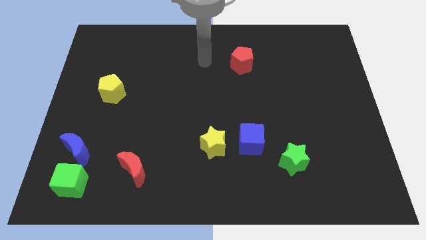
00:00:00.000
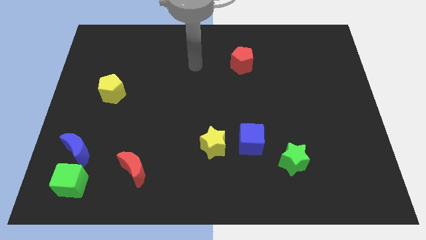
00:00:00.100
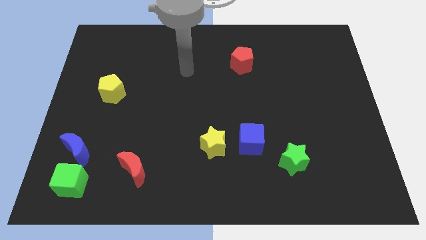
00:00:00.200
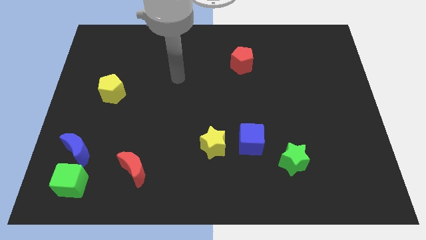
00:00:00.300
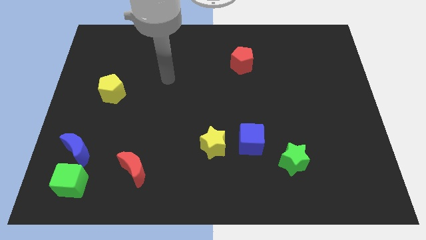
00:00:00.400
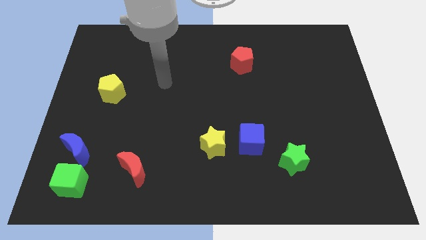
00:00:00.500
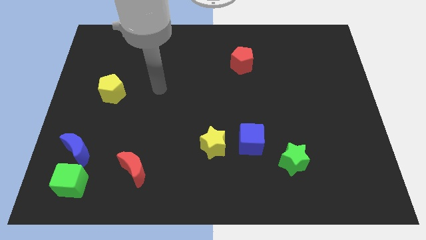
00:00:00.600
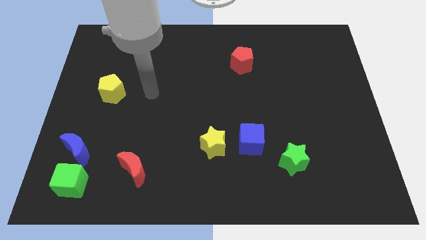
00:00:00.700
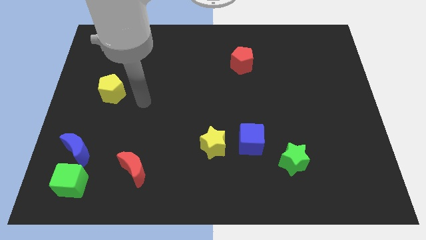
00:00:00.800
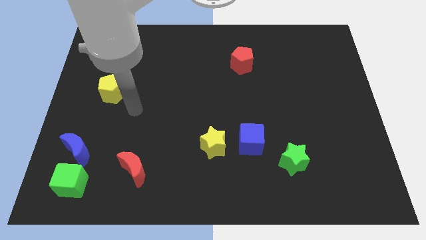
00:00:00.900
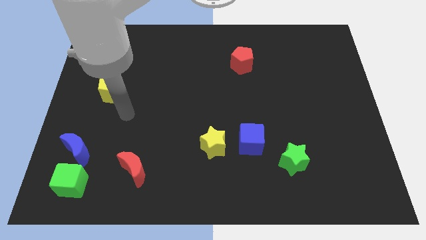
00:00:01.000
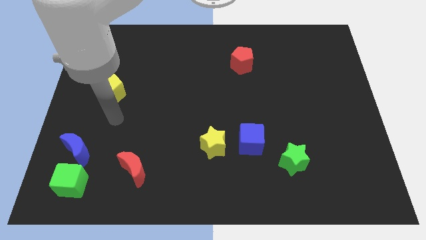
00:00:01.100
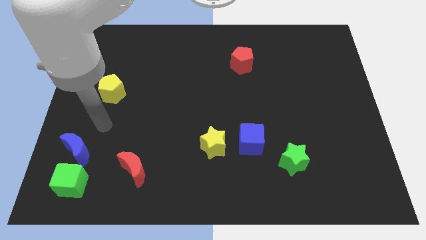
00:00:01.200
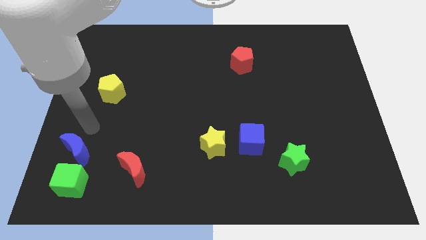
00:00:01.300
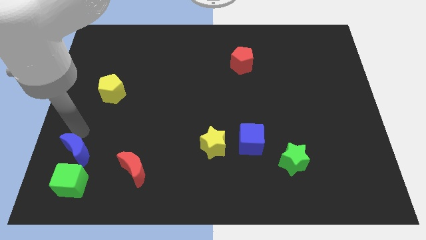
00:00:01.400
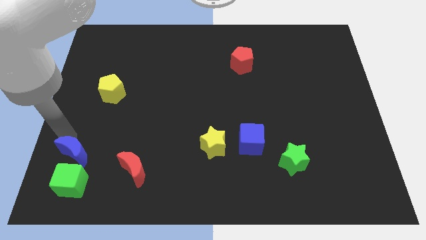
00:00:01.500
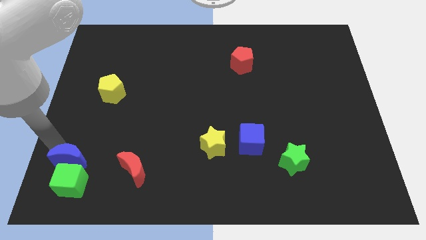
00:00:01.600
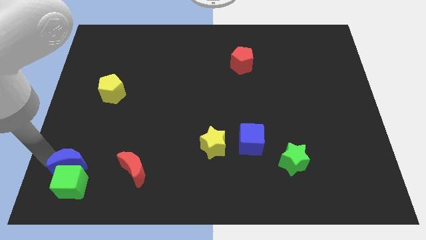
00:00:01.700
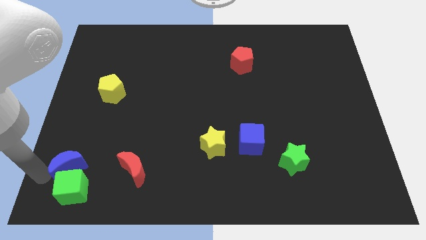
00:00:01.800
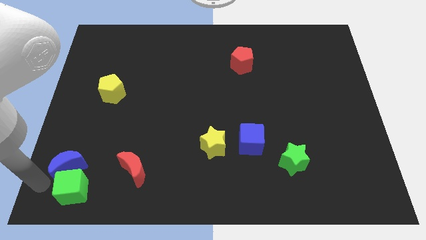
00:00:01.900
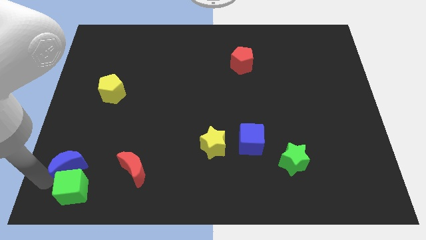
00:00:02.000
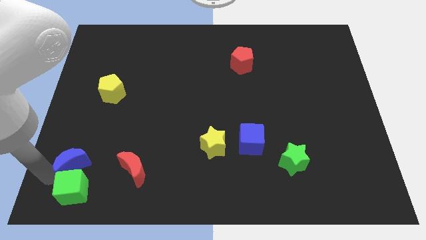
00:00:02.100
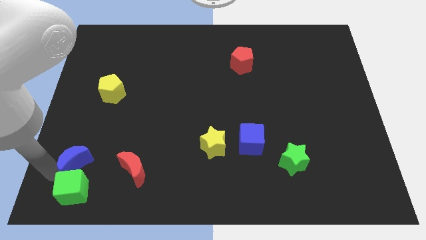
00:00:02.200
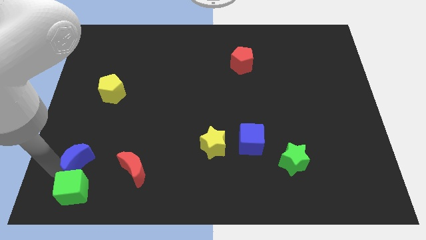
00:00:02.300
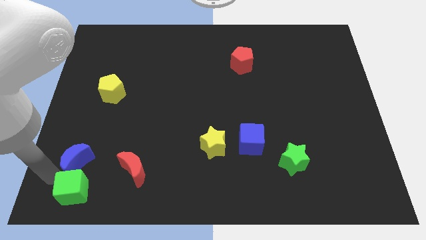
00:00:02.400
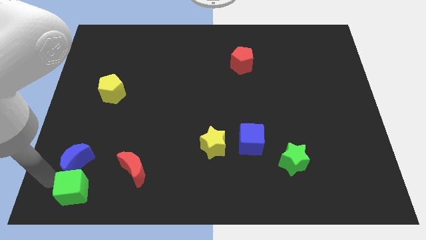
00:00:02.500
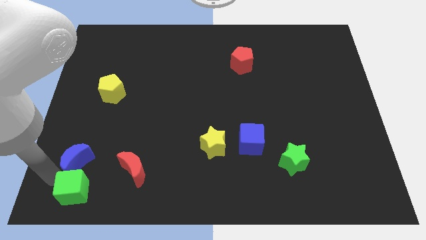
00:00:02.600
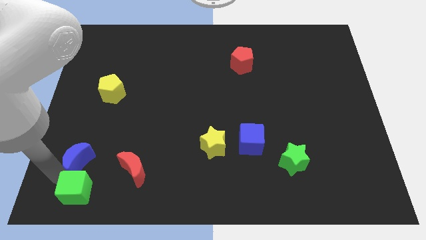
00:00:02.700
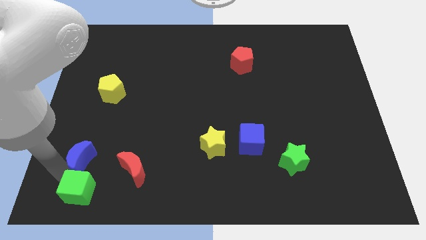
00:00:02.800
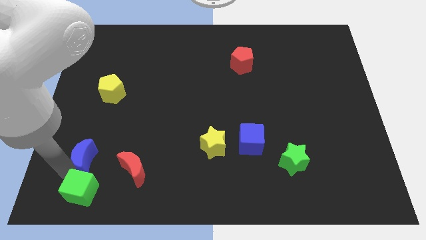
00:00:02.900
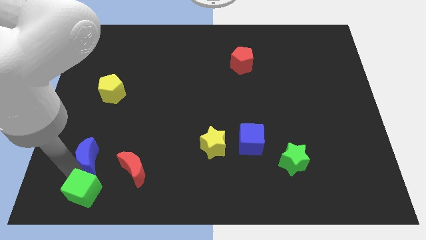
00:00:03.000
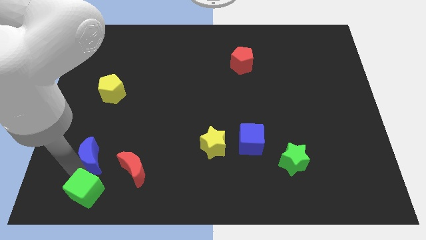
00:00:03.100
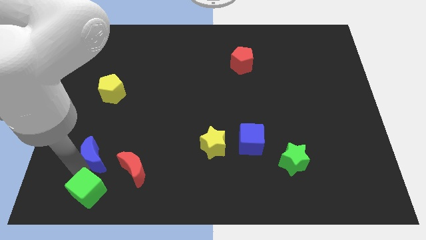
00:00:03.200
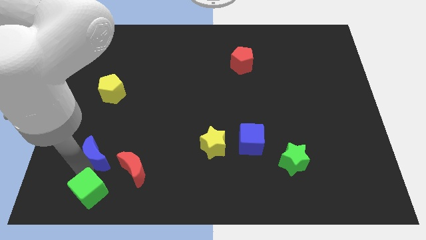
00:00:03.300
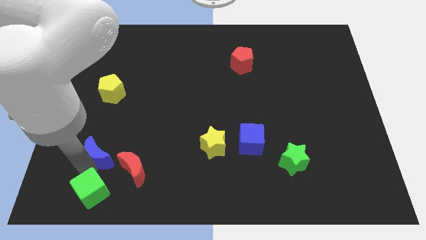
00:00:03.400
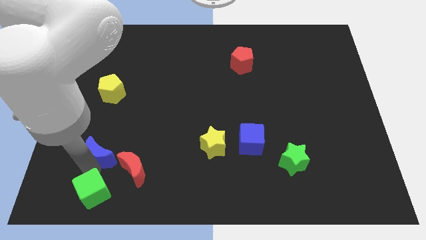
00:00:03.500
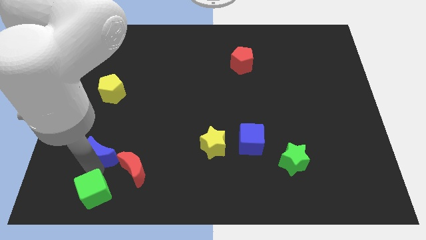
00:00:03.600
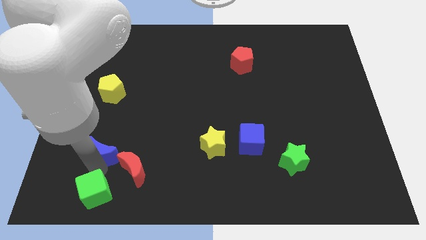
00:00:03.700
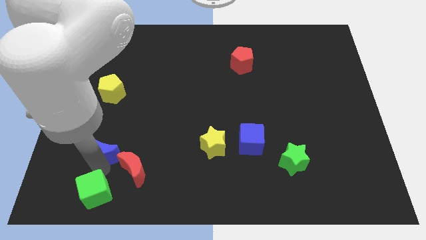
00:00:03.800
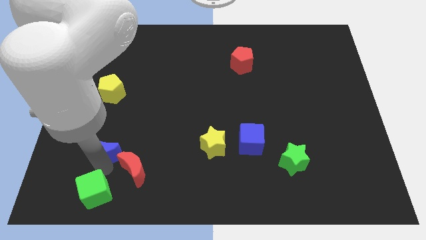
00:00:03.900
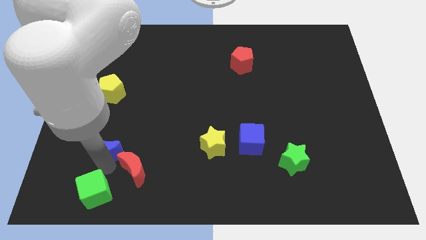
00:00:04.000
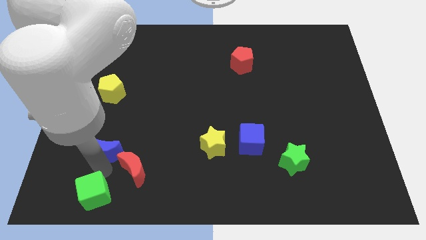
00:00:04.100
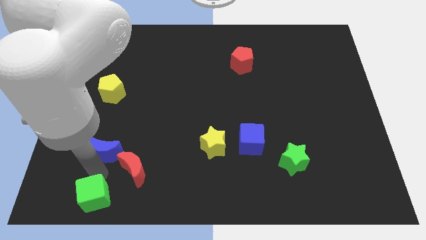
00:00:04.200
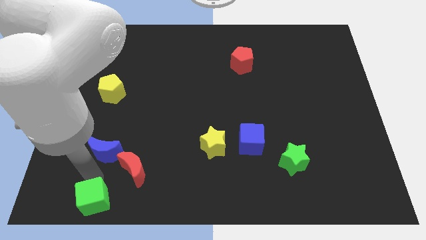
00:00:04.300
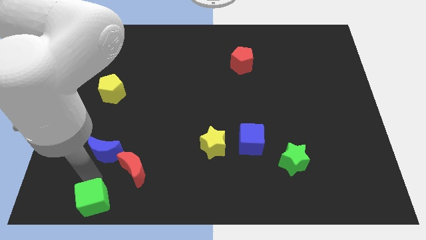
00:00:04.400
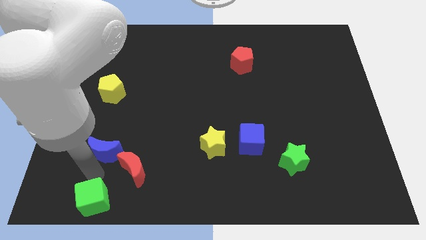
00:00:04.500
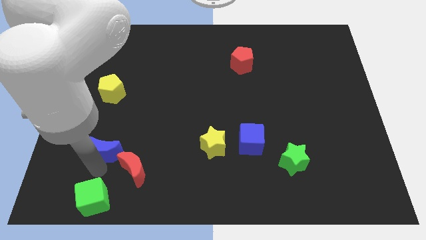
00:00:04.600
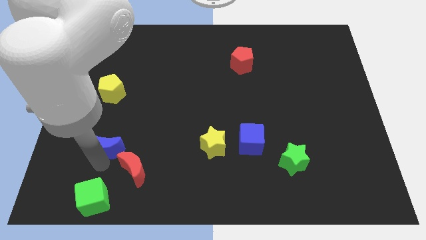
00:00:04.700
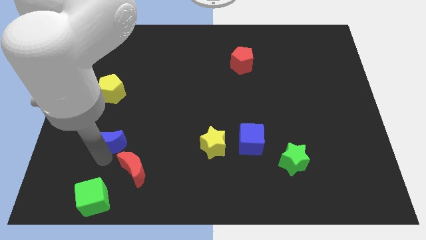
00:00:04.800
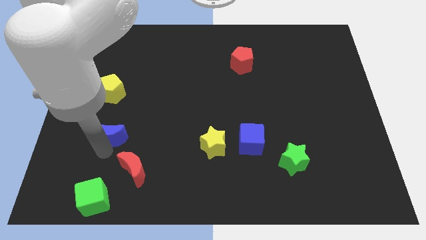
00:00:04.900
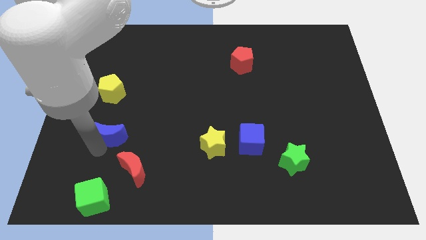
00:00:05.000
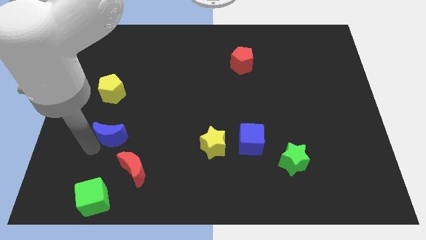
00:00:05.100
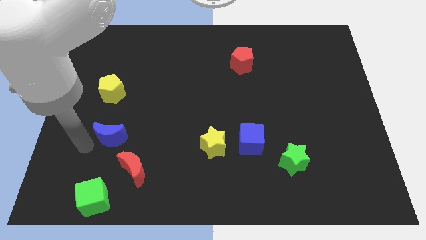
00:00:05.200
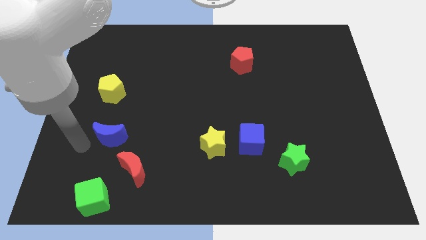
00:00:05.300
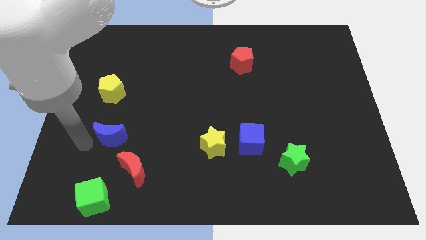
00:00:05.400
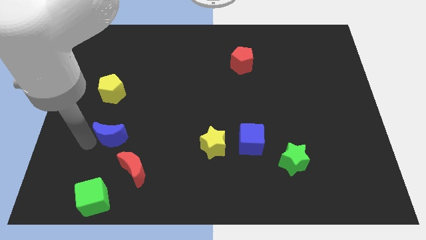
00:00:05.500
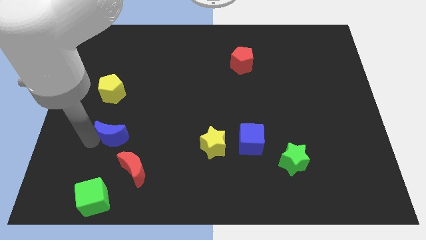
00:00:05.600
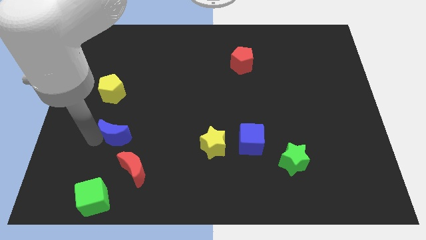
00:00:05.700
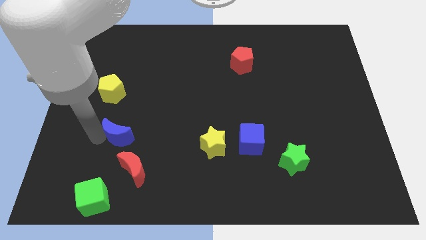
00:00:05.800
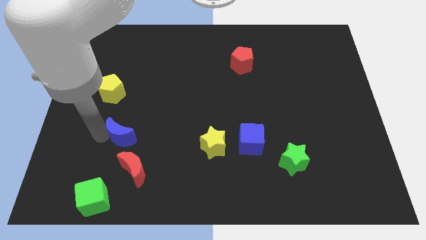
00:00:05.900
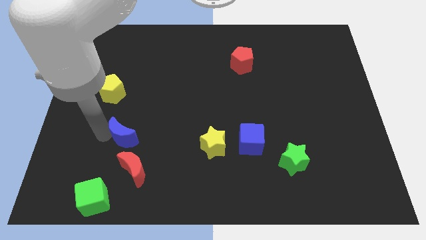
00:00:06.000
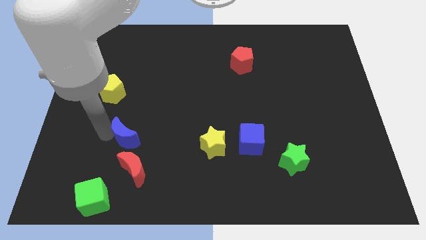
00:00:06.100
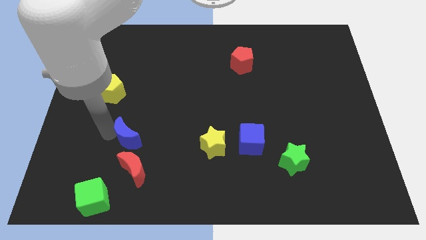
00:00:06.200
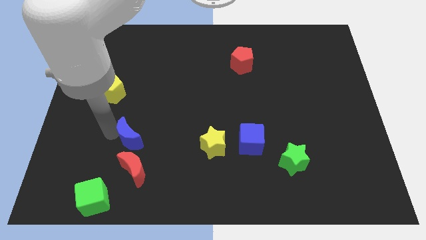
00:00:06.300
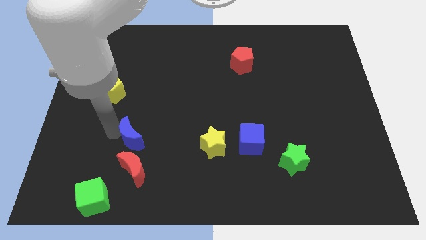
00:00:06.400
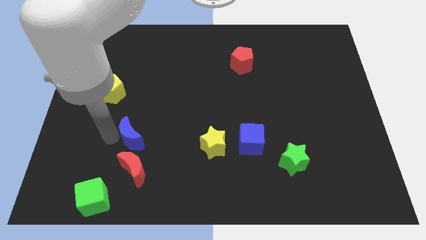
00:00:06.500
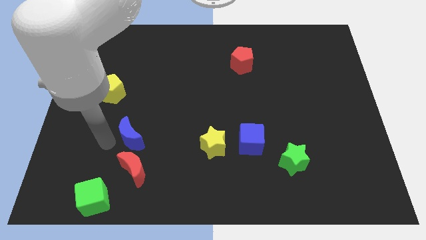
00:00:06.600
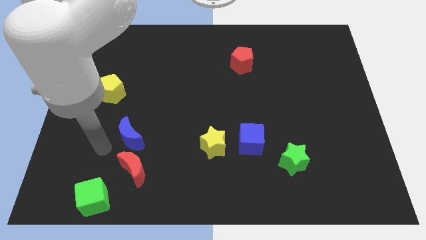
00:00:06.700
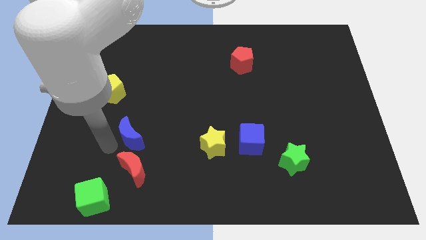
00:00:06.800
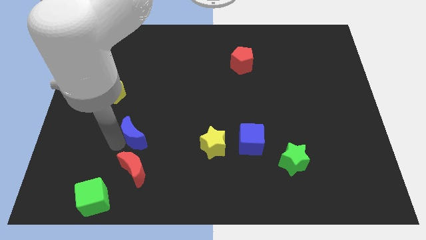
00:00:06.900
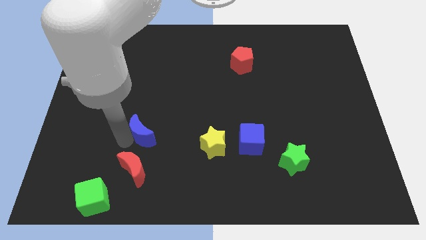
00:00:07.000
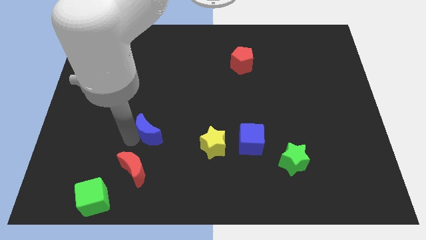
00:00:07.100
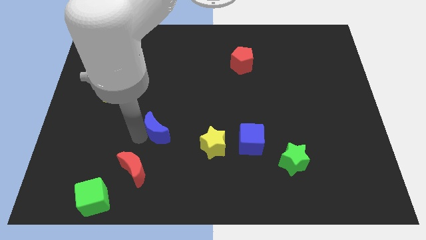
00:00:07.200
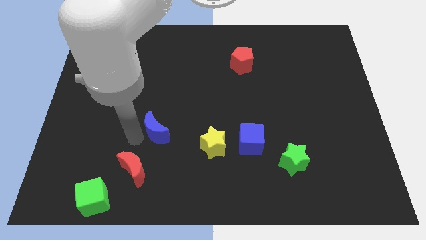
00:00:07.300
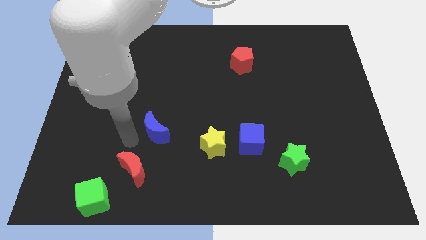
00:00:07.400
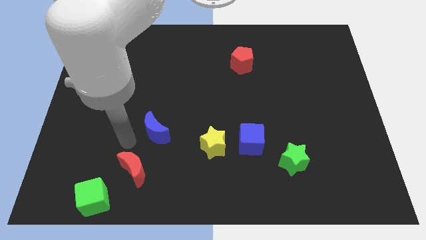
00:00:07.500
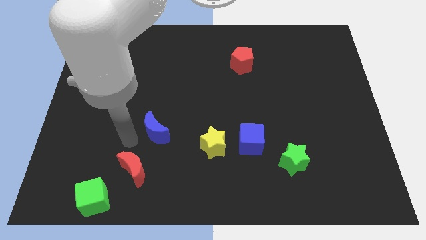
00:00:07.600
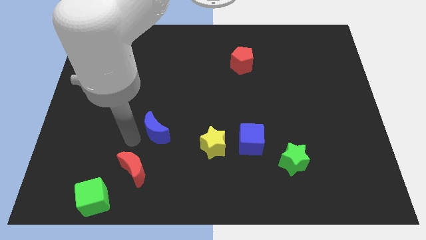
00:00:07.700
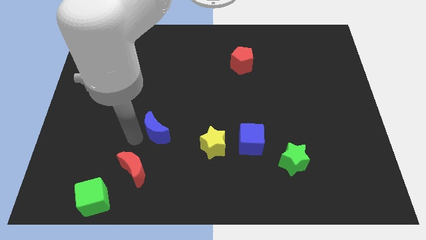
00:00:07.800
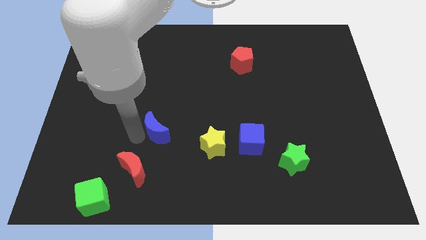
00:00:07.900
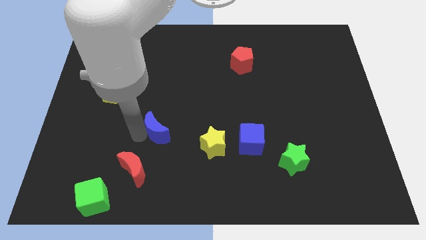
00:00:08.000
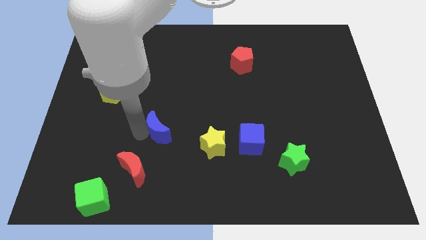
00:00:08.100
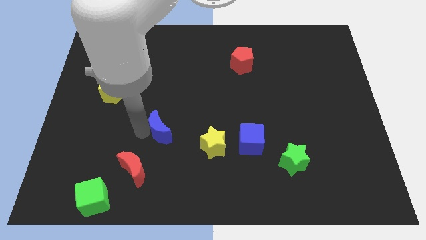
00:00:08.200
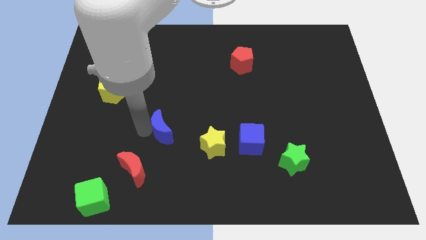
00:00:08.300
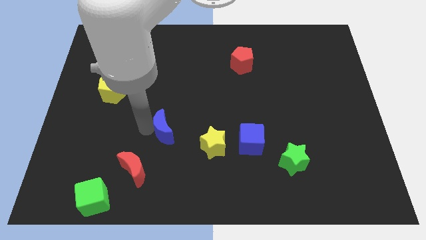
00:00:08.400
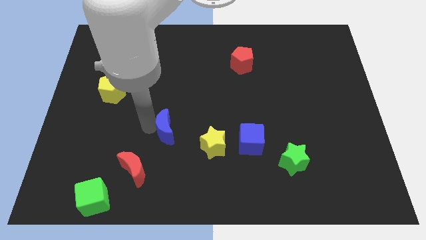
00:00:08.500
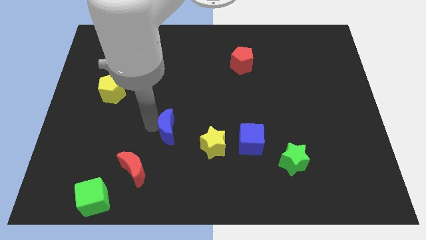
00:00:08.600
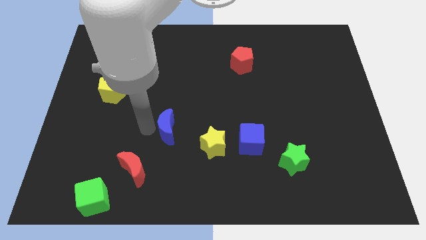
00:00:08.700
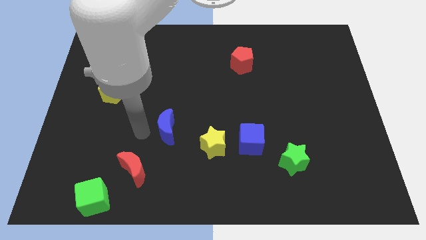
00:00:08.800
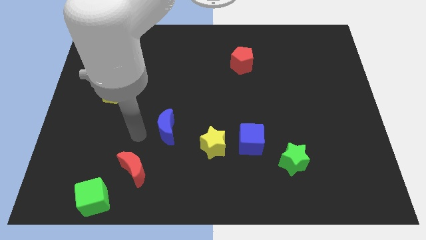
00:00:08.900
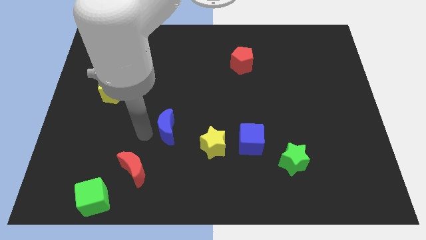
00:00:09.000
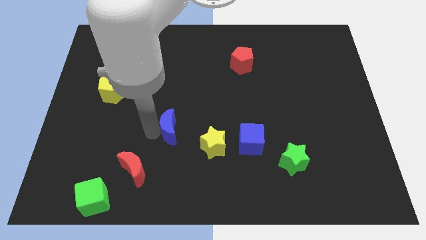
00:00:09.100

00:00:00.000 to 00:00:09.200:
slide the blue moon to the top left of the yellow star
